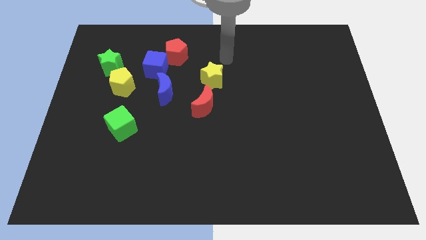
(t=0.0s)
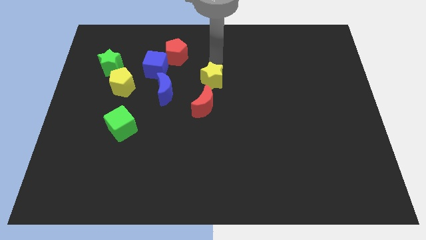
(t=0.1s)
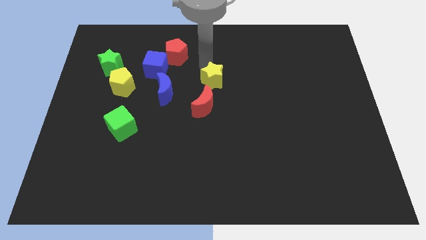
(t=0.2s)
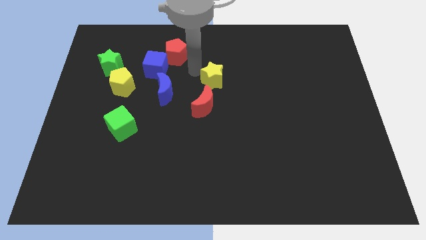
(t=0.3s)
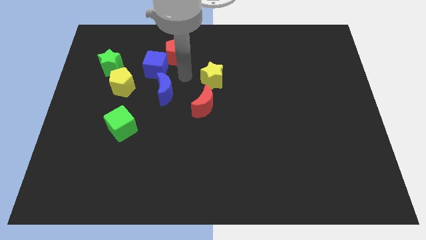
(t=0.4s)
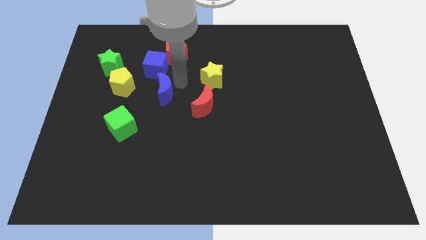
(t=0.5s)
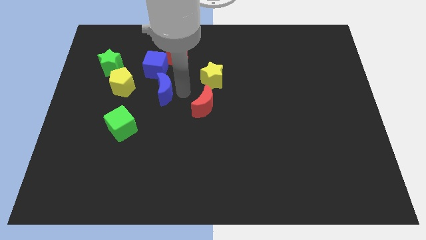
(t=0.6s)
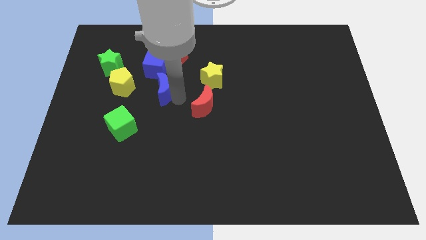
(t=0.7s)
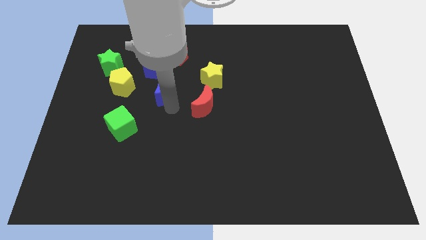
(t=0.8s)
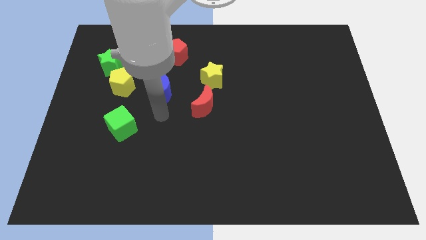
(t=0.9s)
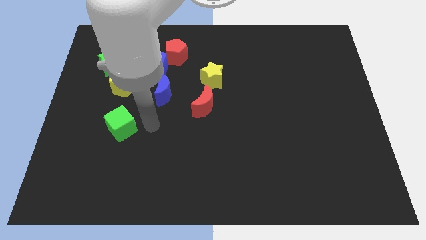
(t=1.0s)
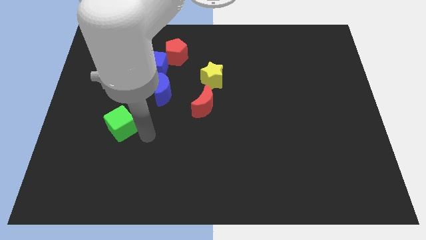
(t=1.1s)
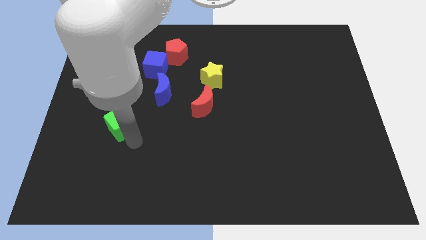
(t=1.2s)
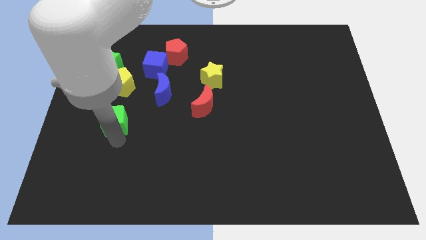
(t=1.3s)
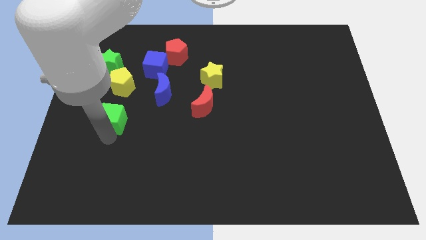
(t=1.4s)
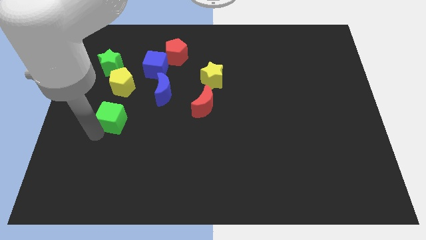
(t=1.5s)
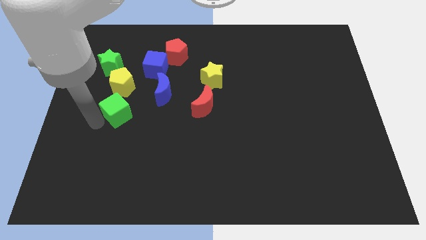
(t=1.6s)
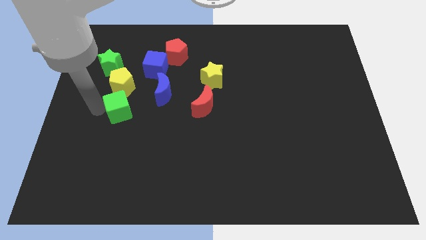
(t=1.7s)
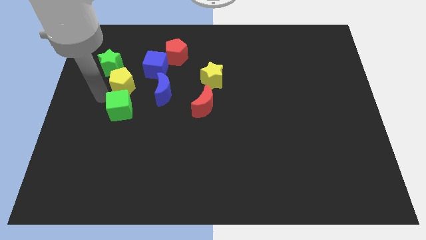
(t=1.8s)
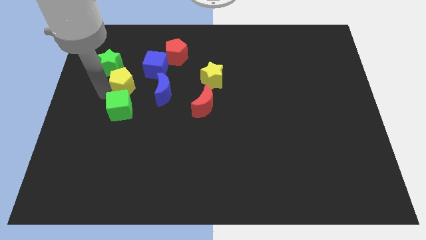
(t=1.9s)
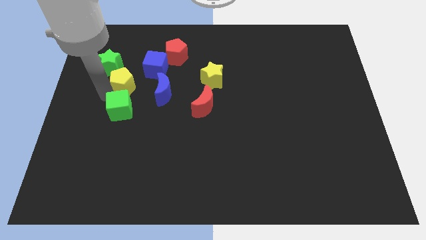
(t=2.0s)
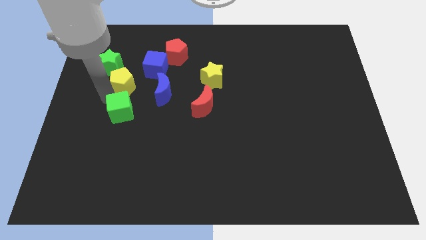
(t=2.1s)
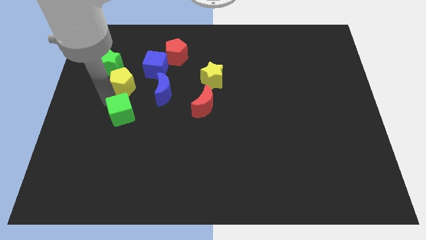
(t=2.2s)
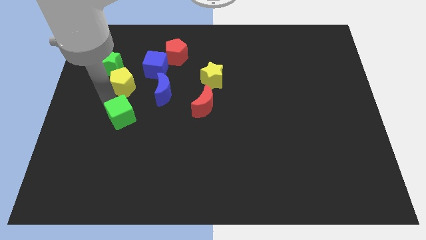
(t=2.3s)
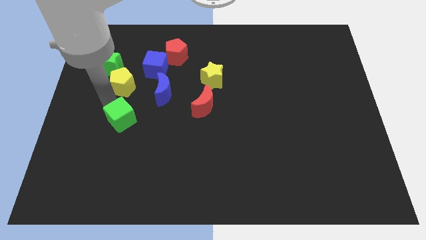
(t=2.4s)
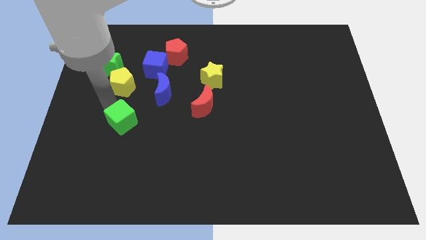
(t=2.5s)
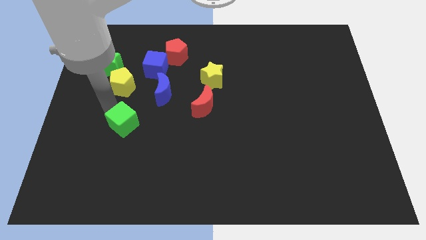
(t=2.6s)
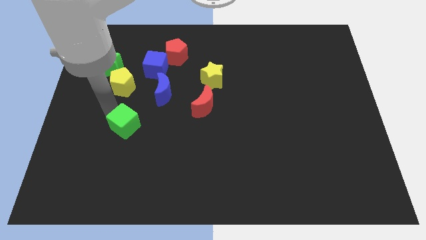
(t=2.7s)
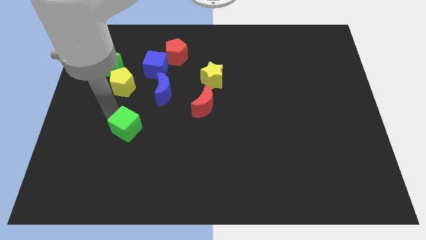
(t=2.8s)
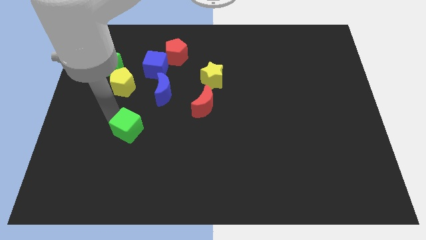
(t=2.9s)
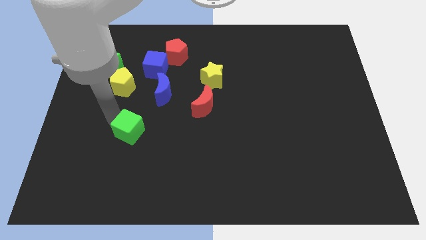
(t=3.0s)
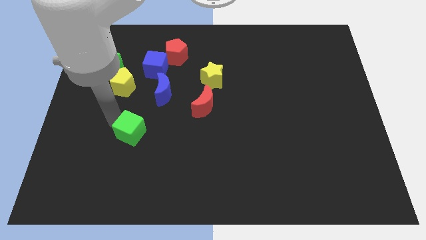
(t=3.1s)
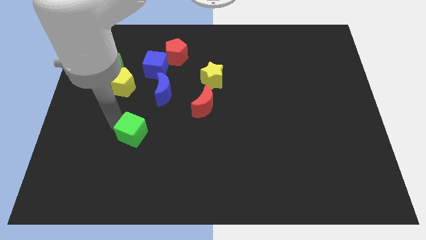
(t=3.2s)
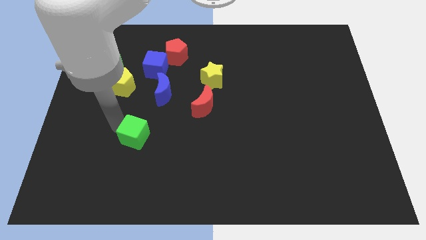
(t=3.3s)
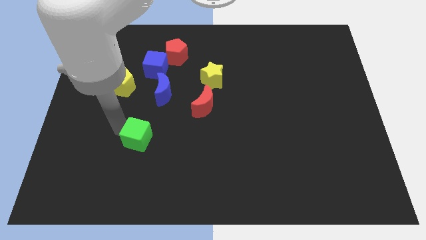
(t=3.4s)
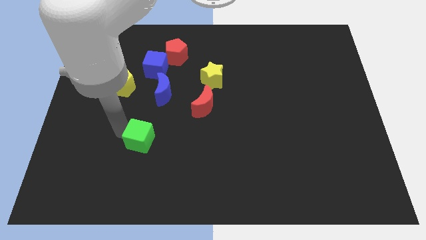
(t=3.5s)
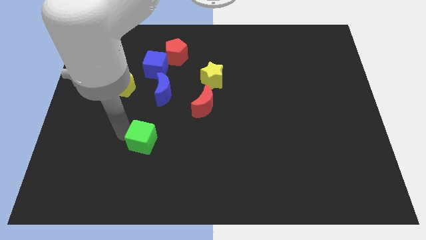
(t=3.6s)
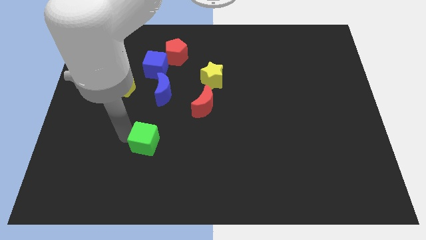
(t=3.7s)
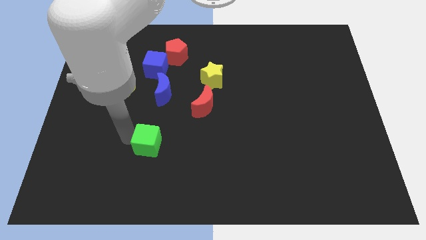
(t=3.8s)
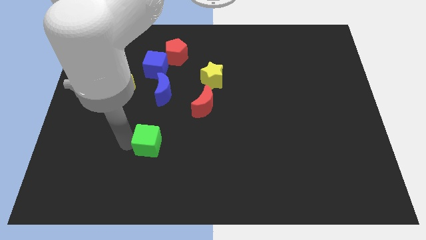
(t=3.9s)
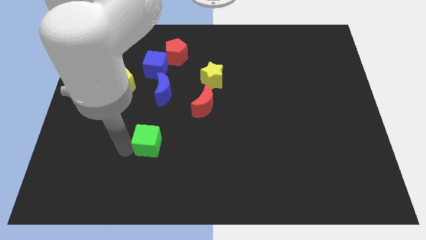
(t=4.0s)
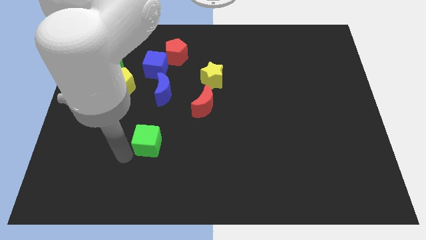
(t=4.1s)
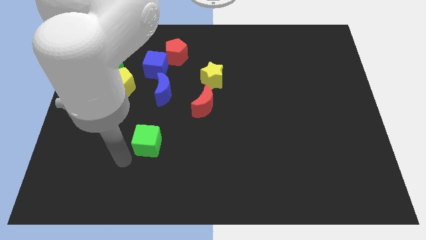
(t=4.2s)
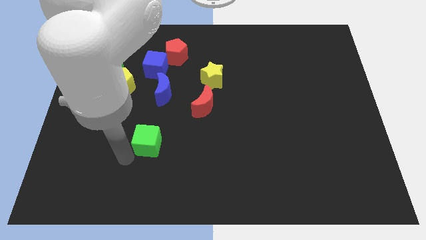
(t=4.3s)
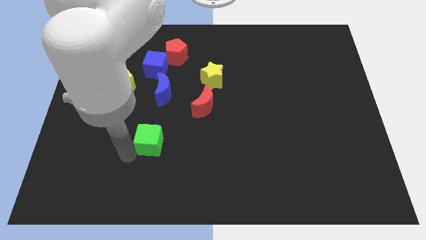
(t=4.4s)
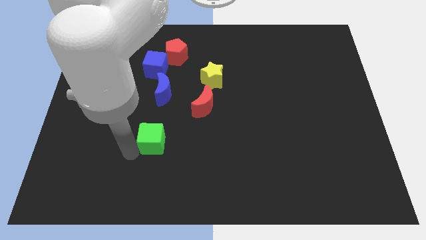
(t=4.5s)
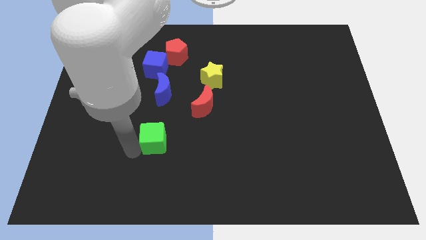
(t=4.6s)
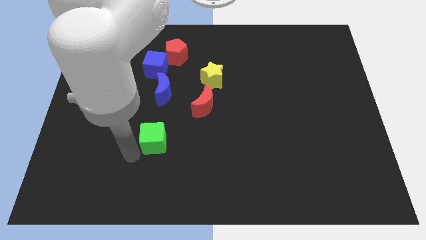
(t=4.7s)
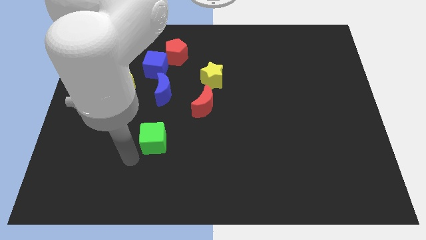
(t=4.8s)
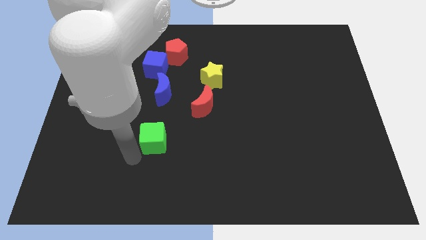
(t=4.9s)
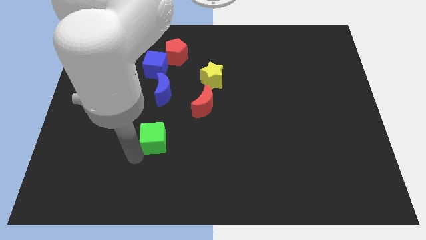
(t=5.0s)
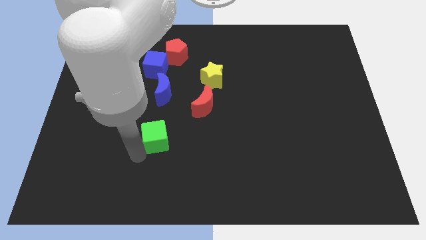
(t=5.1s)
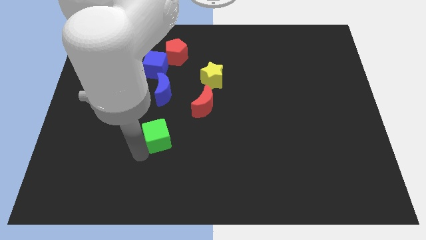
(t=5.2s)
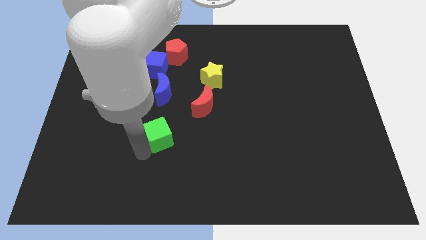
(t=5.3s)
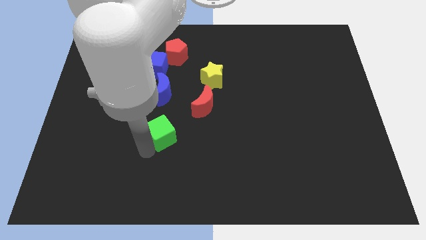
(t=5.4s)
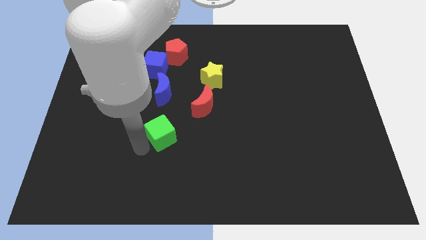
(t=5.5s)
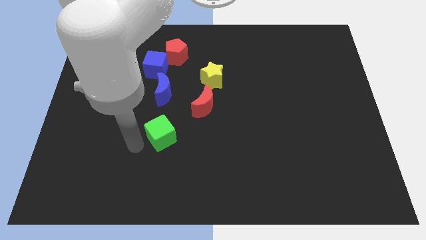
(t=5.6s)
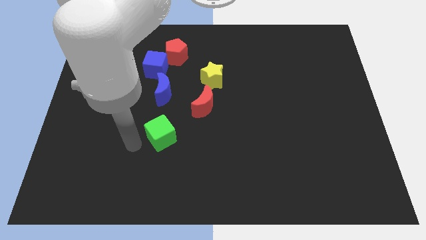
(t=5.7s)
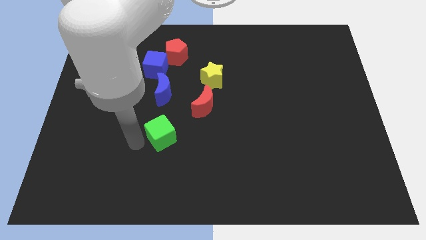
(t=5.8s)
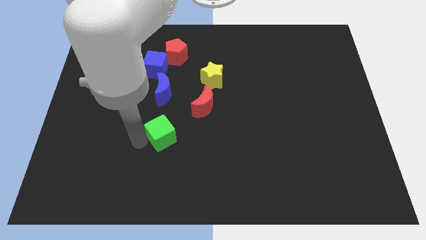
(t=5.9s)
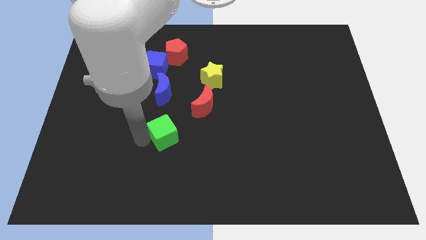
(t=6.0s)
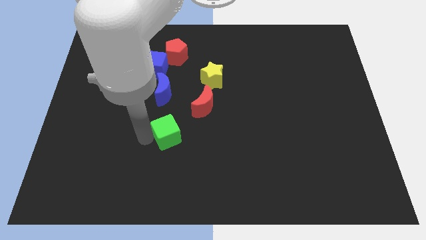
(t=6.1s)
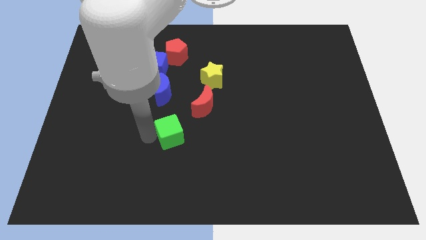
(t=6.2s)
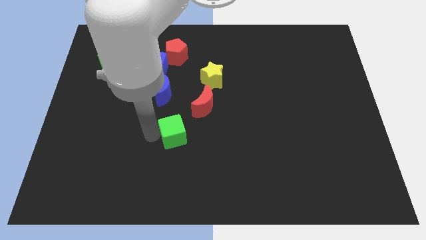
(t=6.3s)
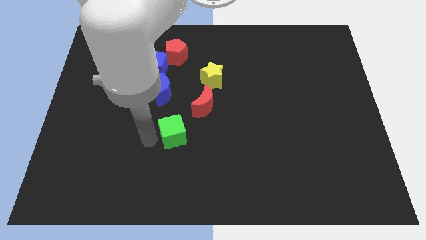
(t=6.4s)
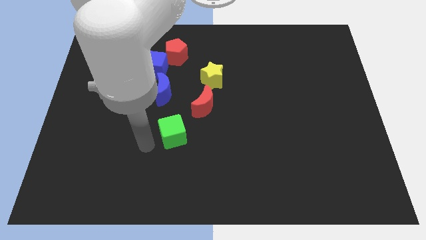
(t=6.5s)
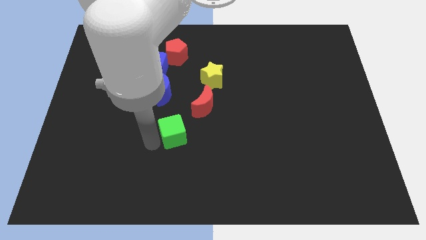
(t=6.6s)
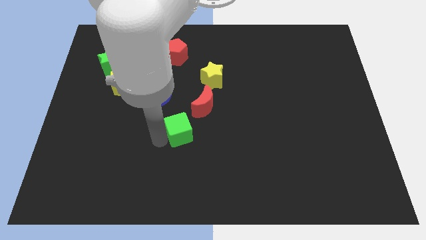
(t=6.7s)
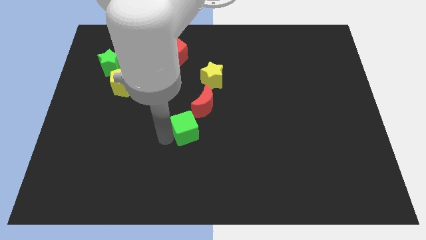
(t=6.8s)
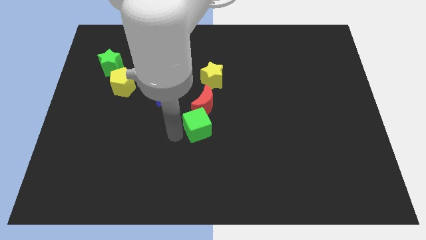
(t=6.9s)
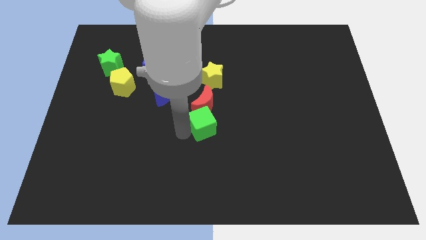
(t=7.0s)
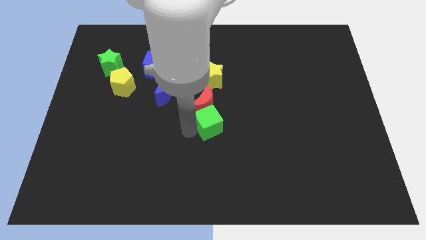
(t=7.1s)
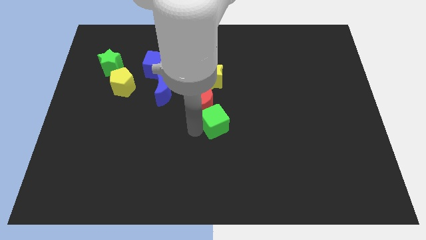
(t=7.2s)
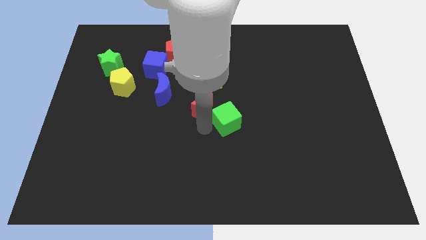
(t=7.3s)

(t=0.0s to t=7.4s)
slide the green cube just right of the red moon
